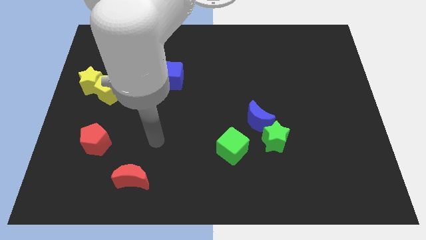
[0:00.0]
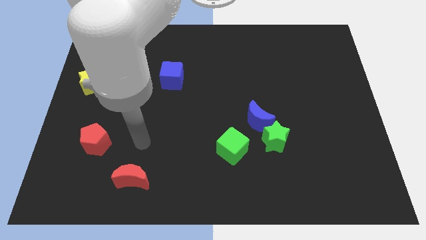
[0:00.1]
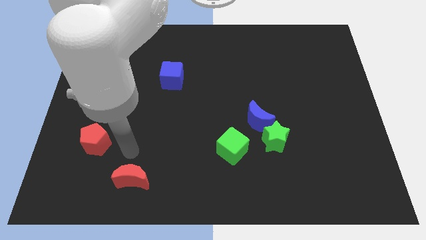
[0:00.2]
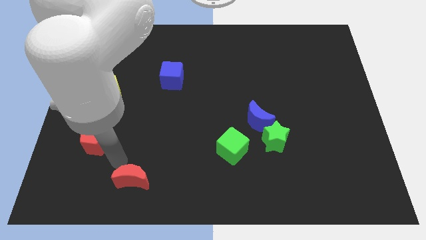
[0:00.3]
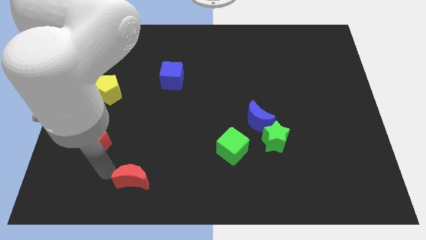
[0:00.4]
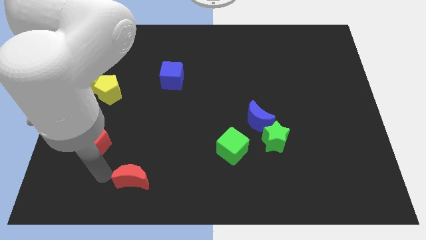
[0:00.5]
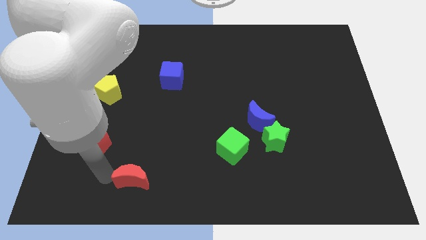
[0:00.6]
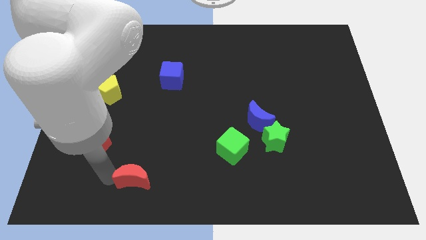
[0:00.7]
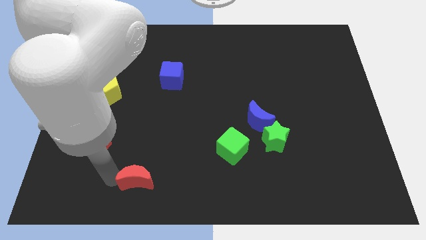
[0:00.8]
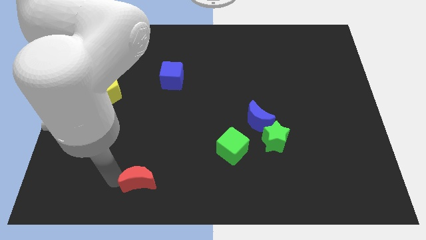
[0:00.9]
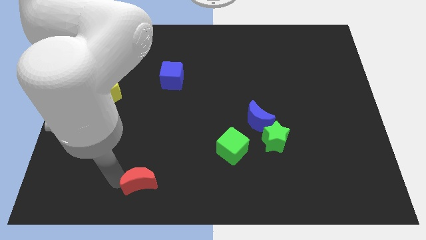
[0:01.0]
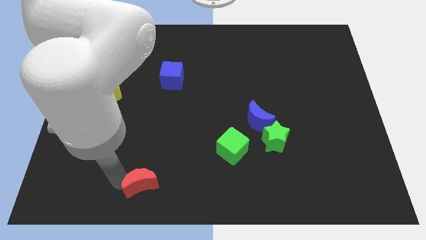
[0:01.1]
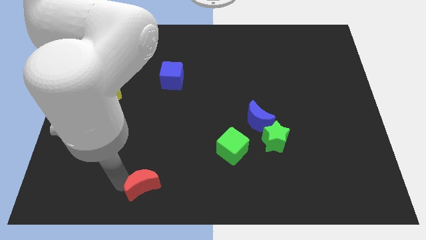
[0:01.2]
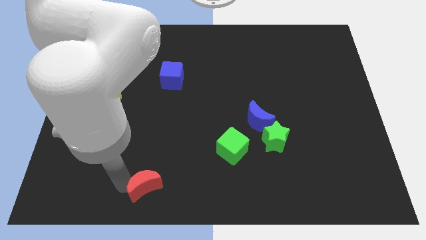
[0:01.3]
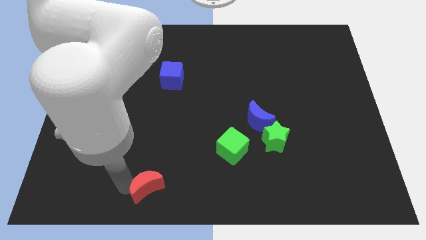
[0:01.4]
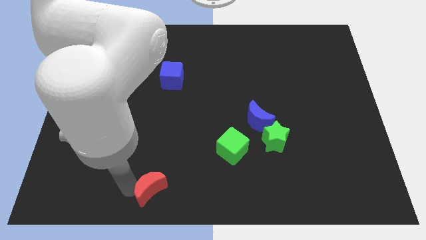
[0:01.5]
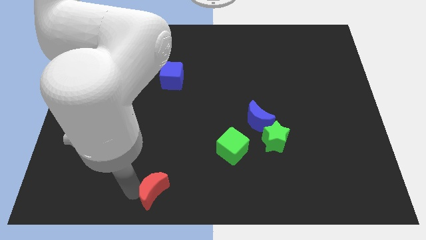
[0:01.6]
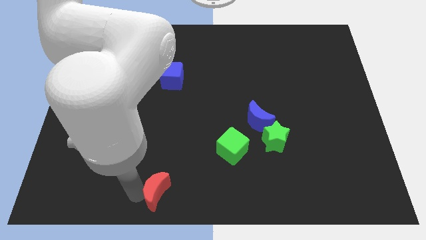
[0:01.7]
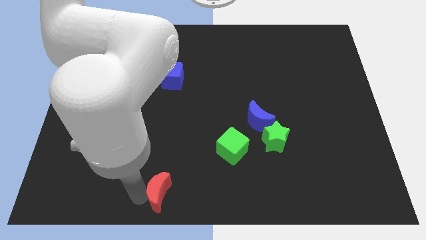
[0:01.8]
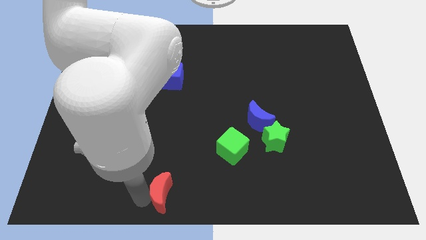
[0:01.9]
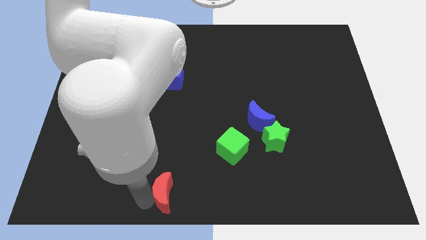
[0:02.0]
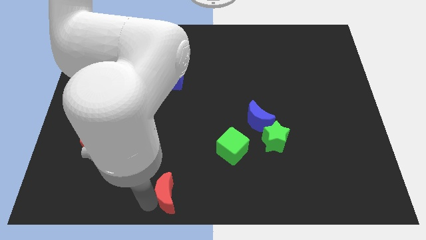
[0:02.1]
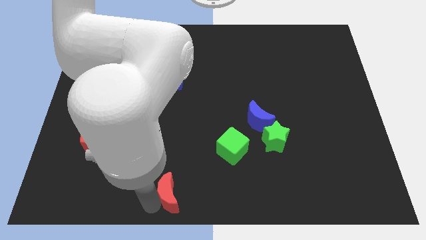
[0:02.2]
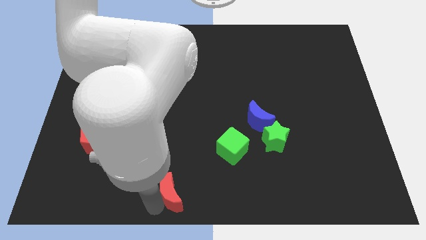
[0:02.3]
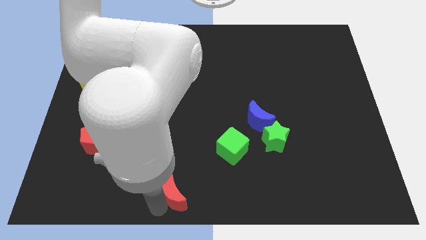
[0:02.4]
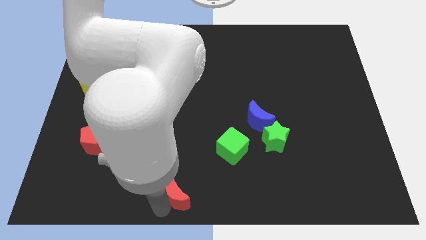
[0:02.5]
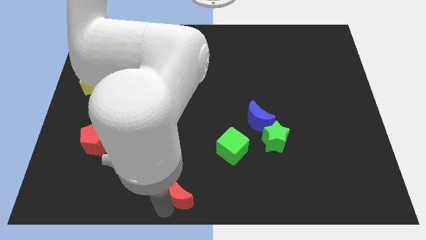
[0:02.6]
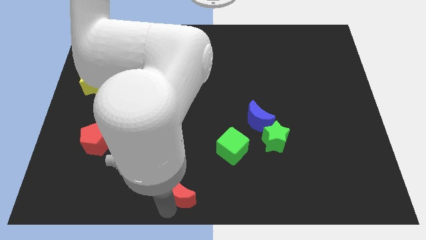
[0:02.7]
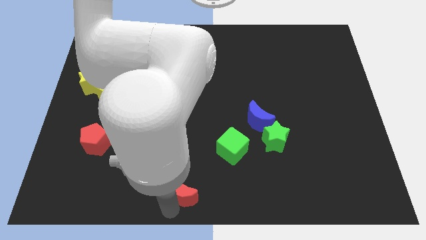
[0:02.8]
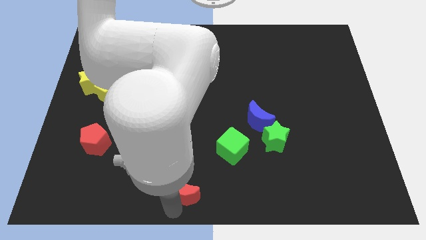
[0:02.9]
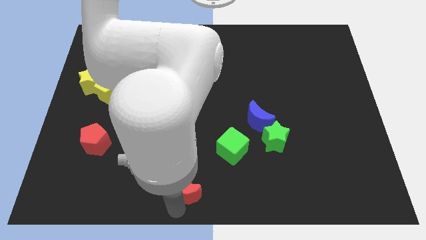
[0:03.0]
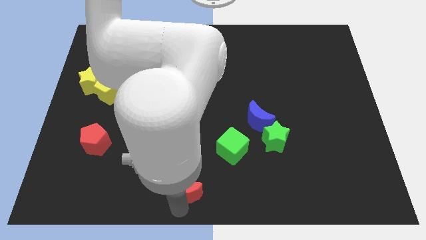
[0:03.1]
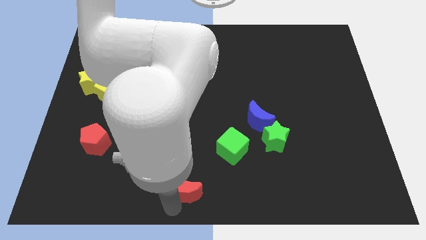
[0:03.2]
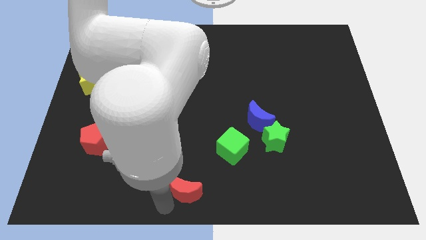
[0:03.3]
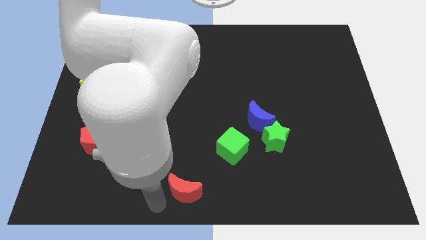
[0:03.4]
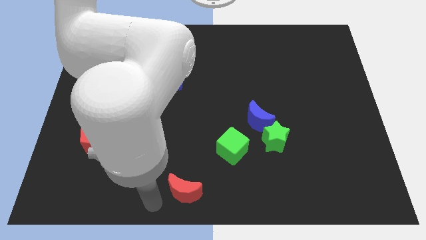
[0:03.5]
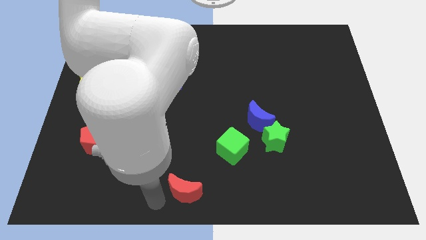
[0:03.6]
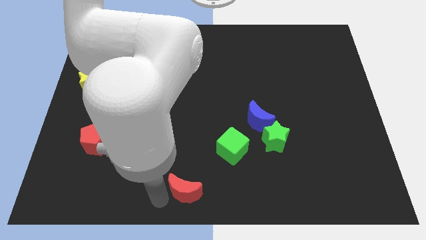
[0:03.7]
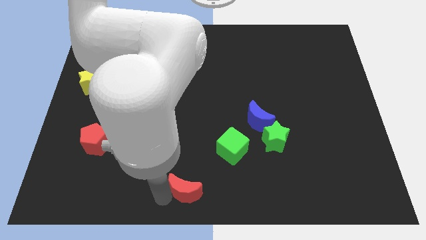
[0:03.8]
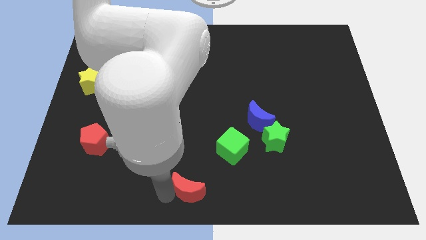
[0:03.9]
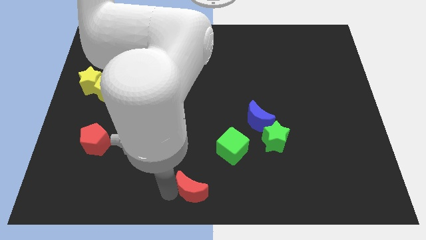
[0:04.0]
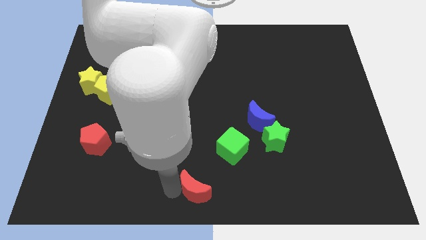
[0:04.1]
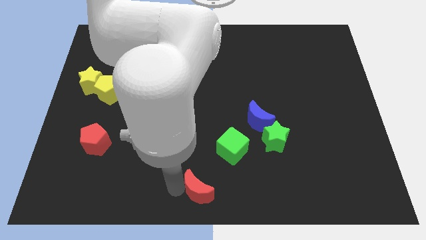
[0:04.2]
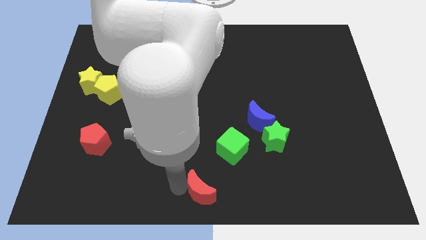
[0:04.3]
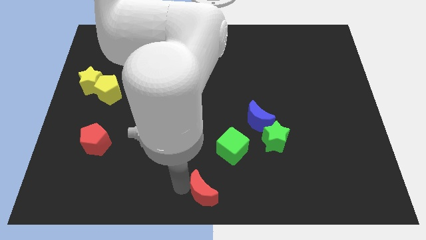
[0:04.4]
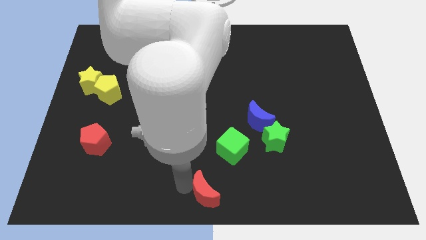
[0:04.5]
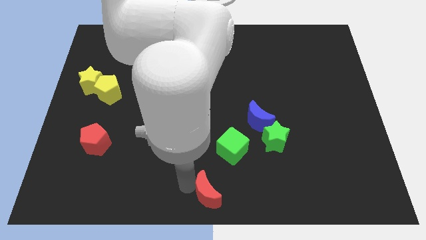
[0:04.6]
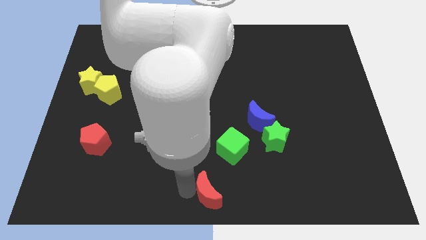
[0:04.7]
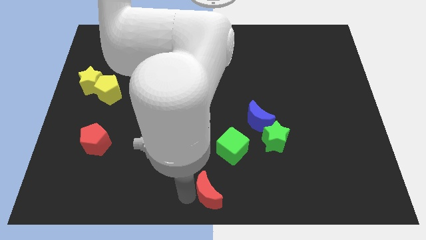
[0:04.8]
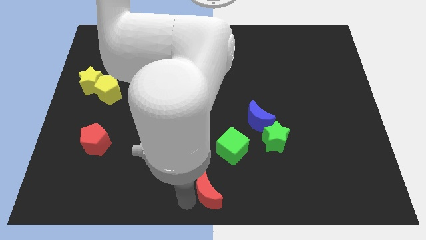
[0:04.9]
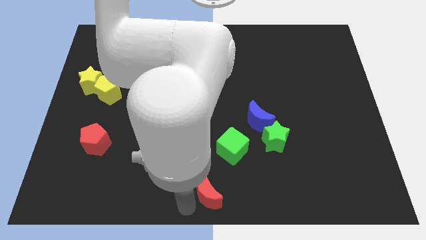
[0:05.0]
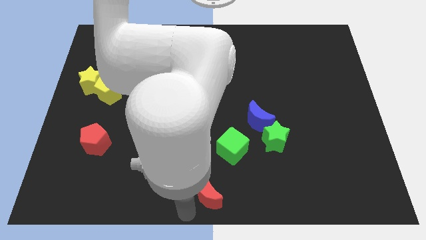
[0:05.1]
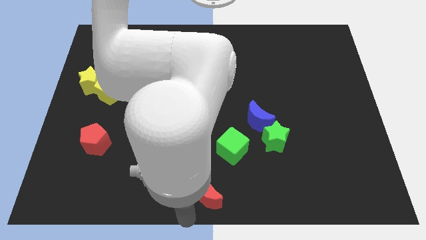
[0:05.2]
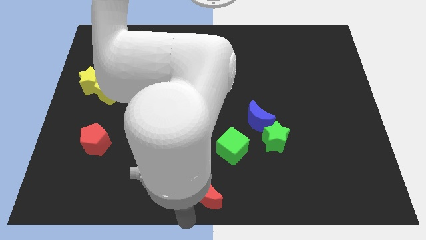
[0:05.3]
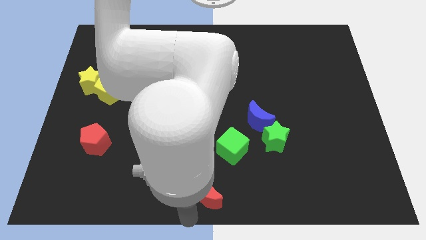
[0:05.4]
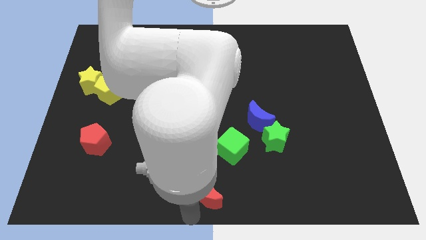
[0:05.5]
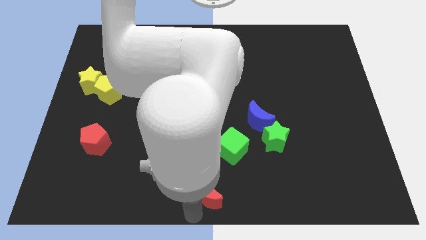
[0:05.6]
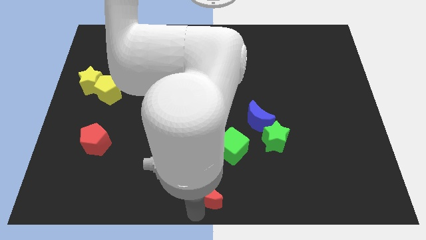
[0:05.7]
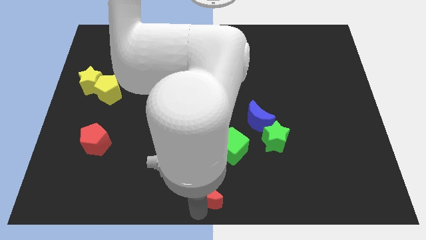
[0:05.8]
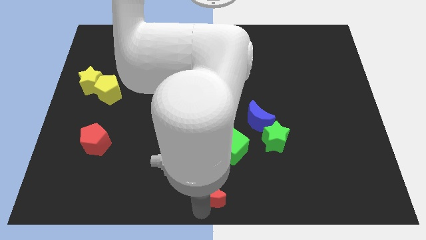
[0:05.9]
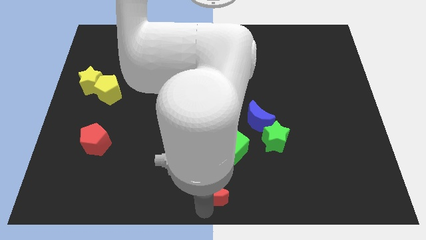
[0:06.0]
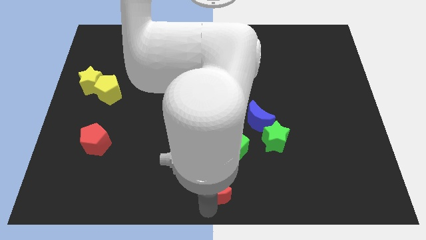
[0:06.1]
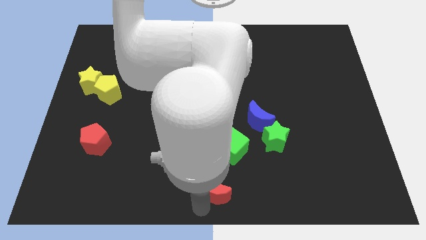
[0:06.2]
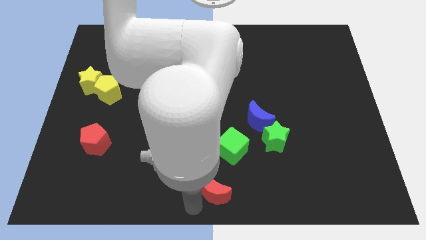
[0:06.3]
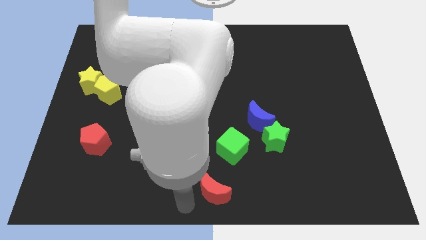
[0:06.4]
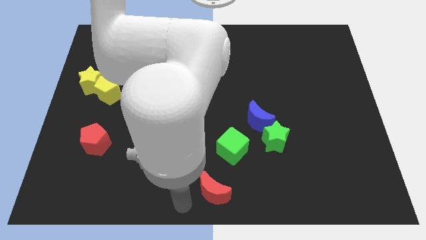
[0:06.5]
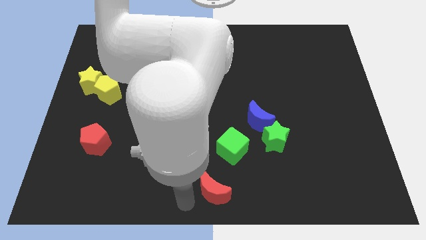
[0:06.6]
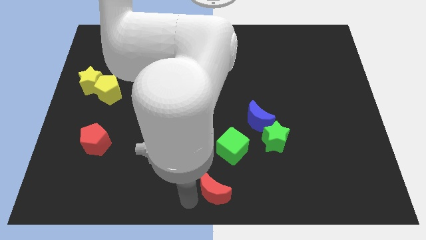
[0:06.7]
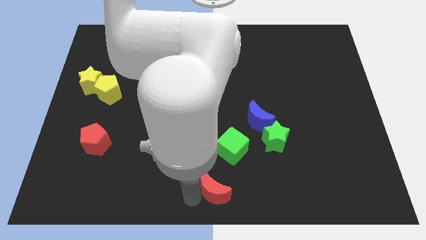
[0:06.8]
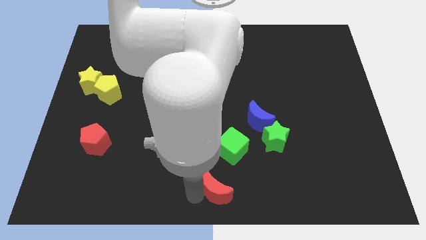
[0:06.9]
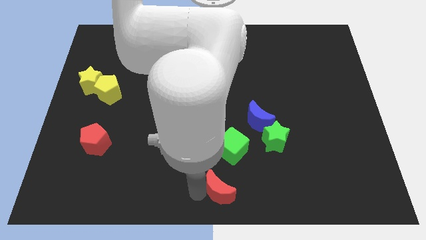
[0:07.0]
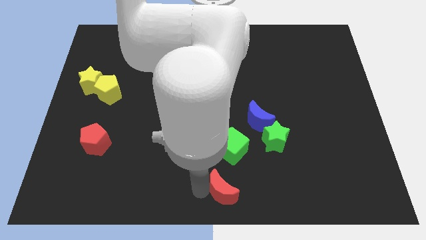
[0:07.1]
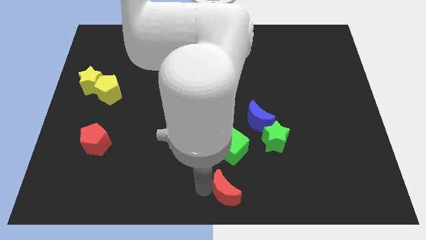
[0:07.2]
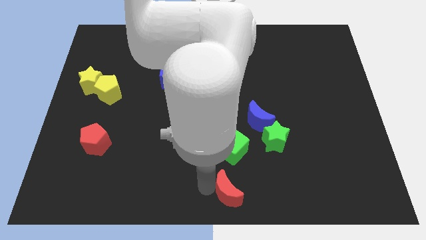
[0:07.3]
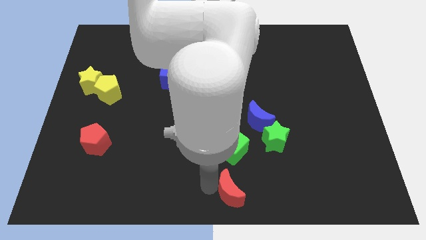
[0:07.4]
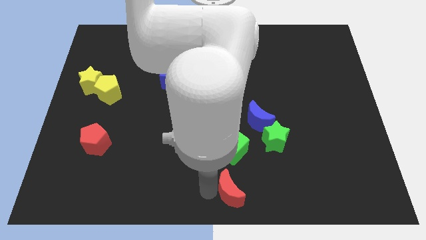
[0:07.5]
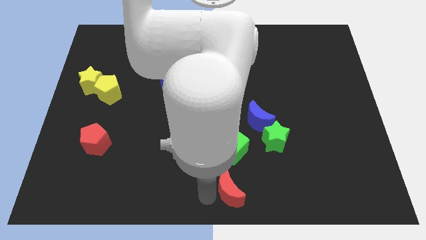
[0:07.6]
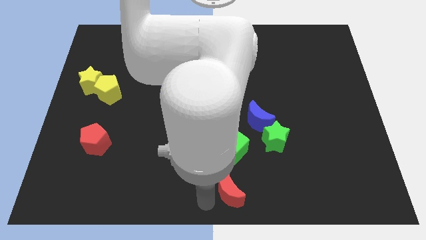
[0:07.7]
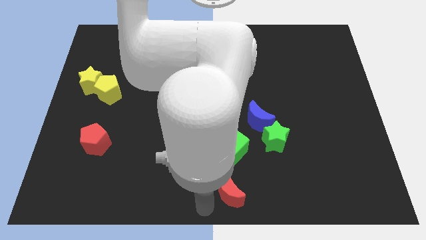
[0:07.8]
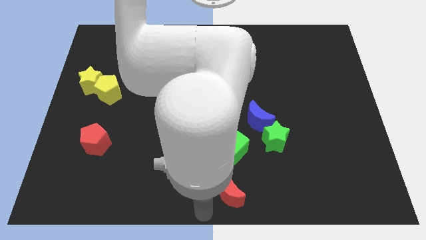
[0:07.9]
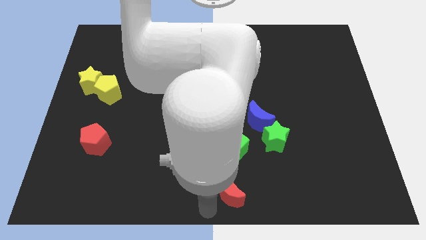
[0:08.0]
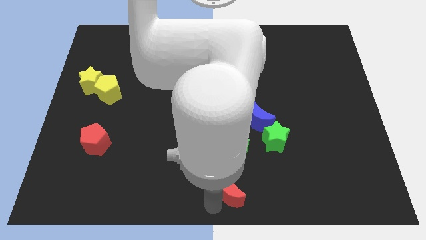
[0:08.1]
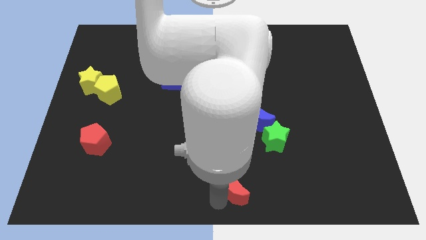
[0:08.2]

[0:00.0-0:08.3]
move the red moon to the right
